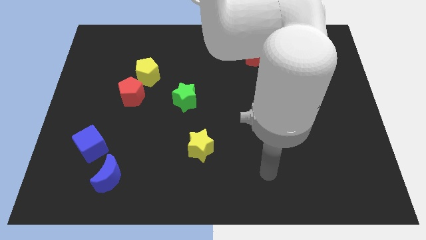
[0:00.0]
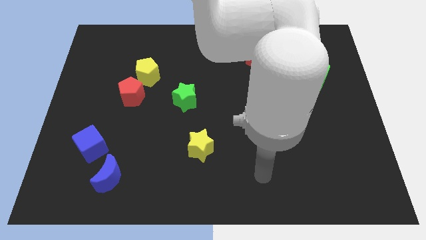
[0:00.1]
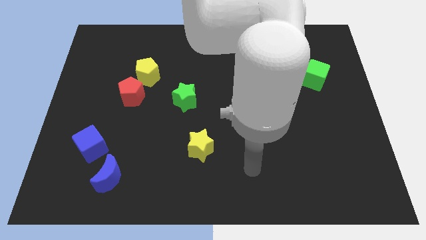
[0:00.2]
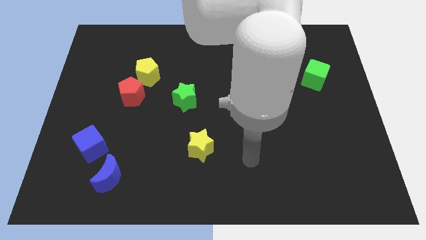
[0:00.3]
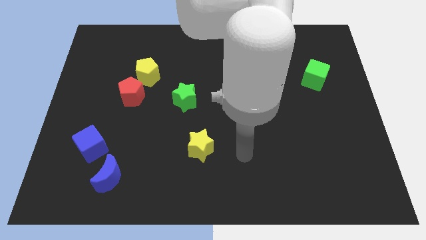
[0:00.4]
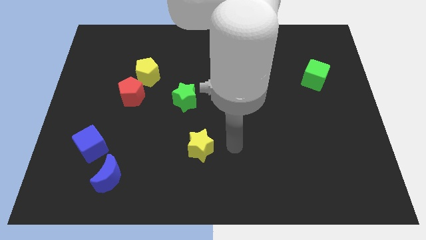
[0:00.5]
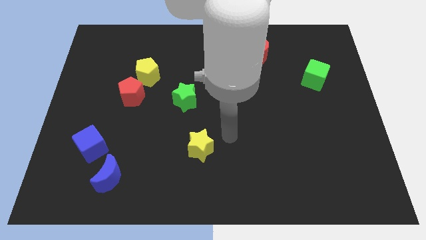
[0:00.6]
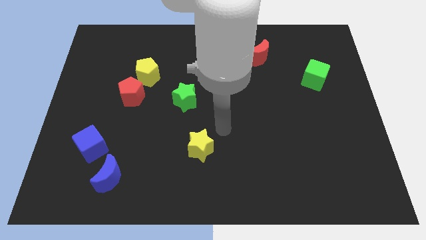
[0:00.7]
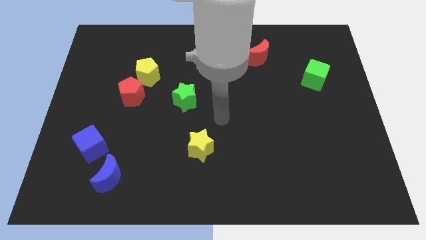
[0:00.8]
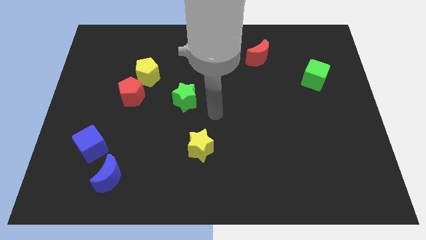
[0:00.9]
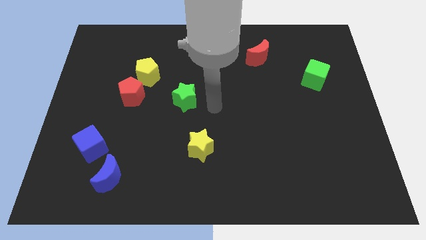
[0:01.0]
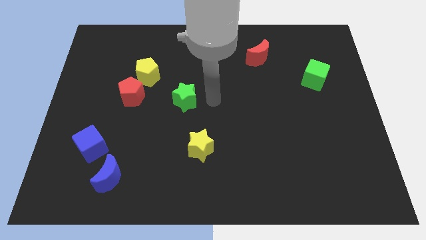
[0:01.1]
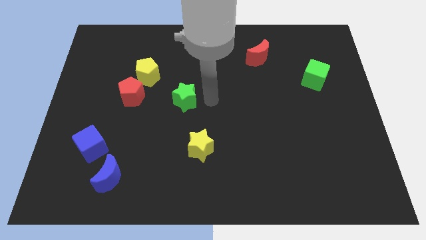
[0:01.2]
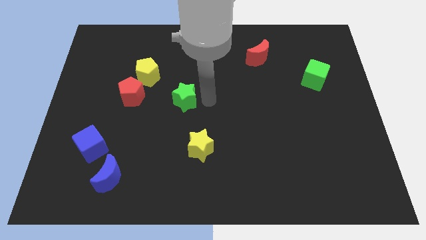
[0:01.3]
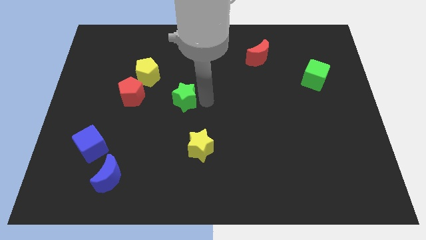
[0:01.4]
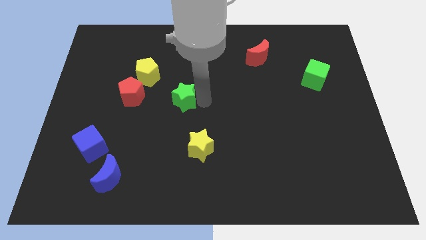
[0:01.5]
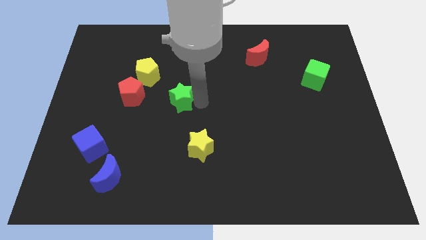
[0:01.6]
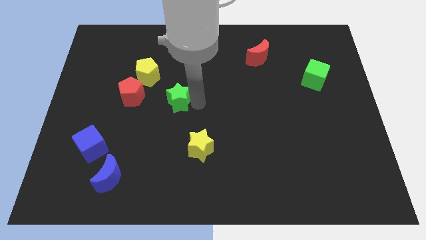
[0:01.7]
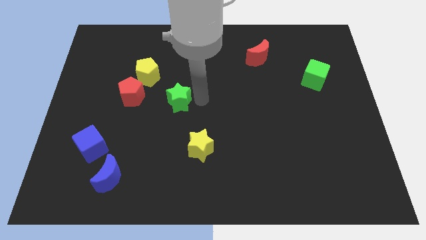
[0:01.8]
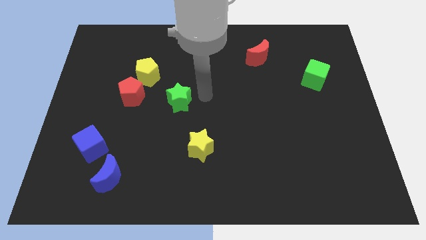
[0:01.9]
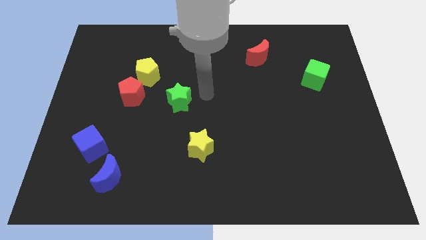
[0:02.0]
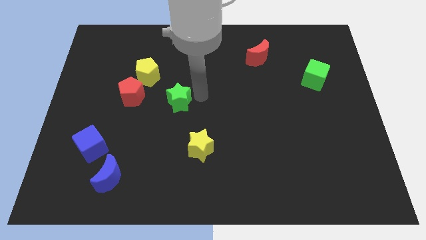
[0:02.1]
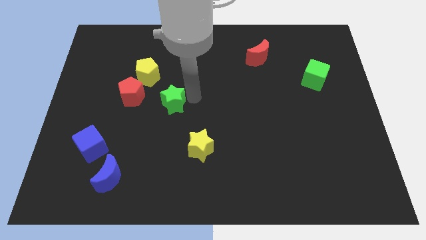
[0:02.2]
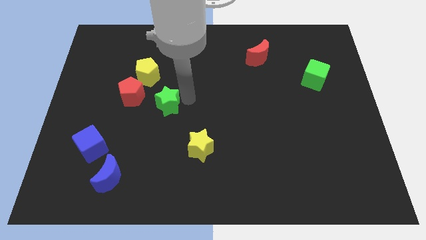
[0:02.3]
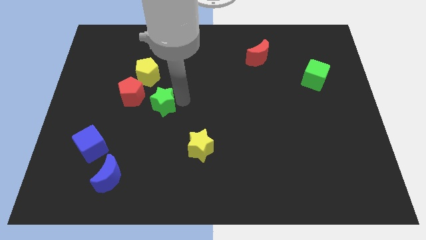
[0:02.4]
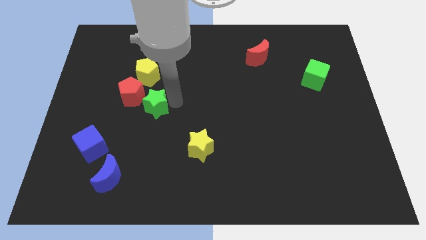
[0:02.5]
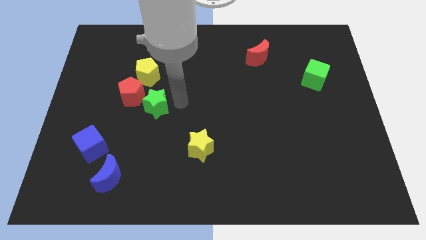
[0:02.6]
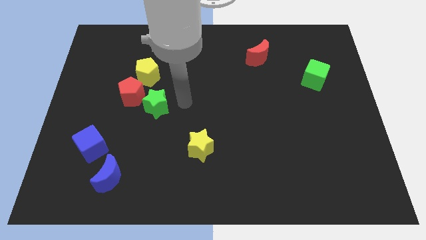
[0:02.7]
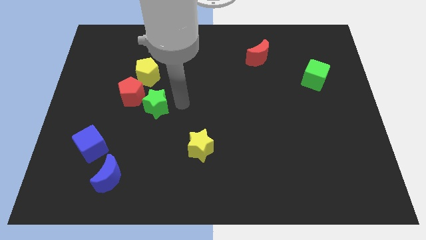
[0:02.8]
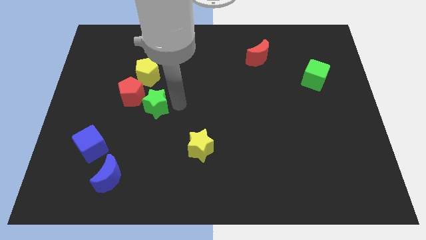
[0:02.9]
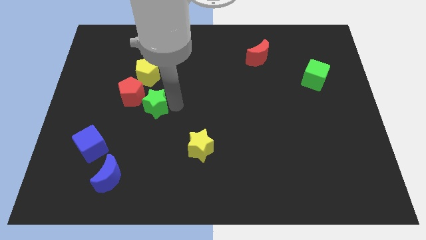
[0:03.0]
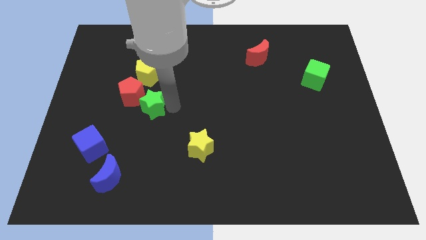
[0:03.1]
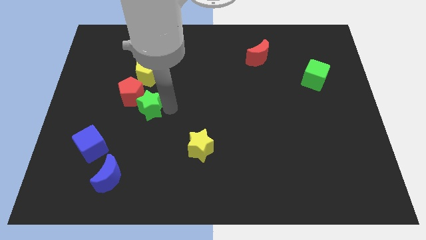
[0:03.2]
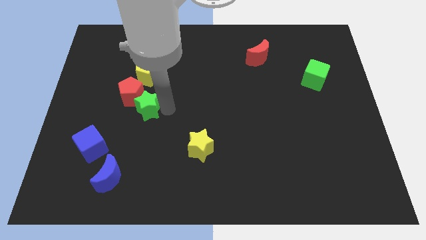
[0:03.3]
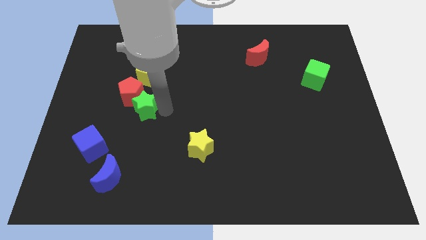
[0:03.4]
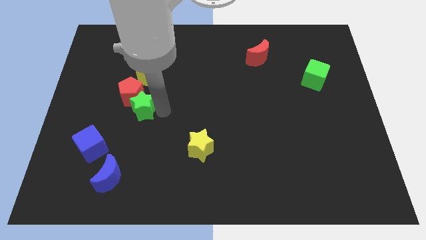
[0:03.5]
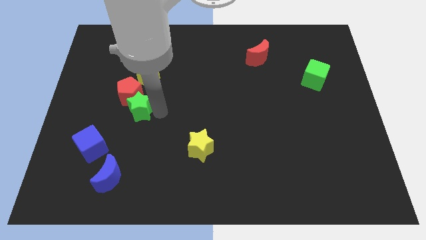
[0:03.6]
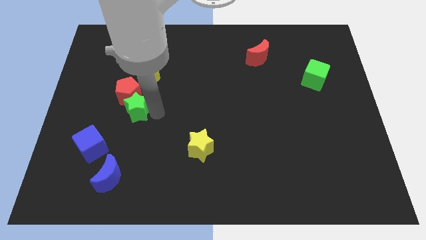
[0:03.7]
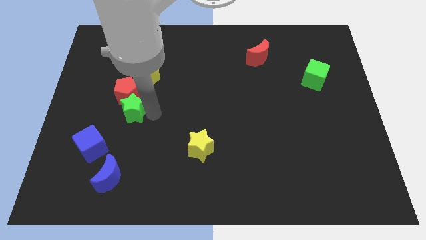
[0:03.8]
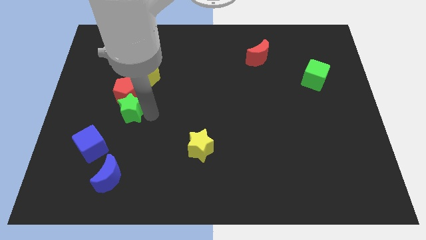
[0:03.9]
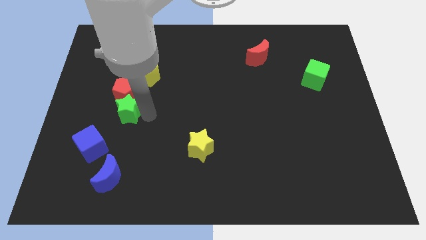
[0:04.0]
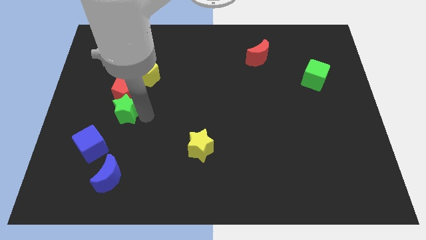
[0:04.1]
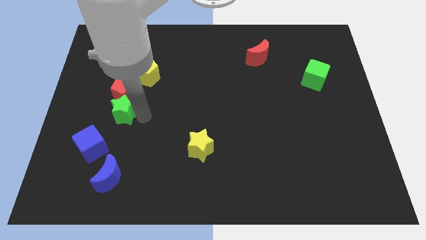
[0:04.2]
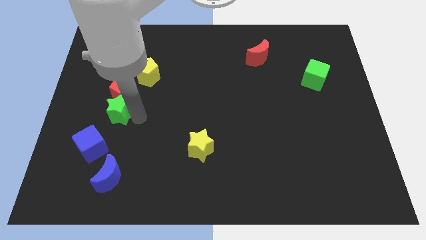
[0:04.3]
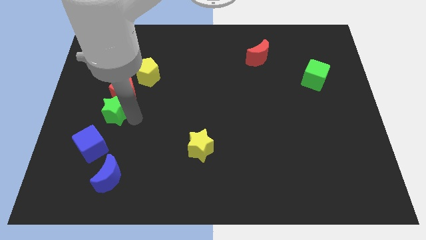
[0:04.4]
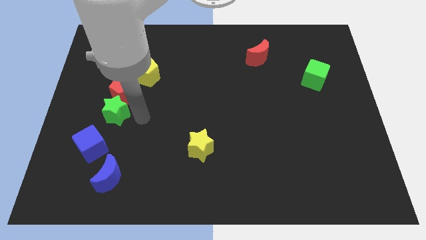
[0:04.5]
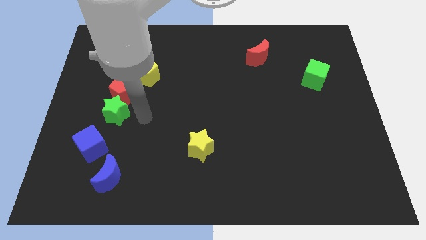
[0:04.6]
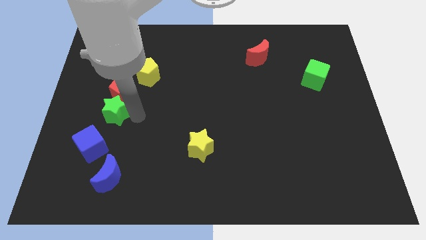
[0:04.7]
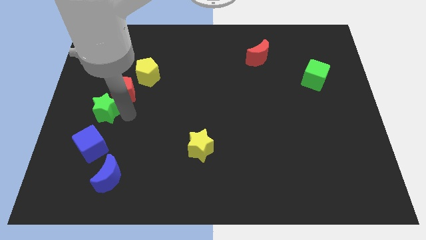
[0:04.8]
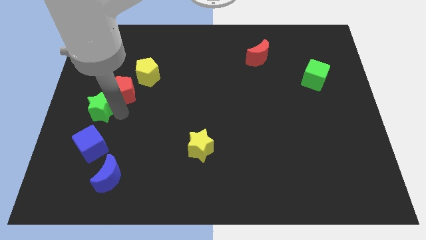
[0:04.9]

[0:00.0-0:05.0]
push the green star to the left side of the board

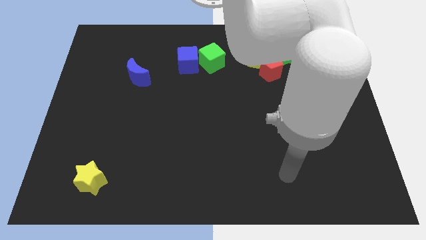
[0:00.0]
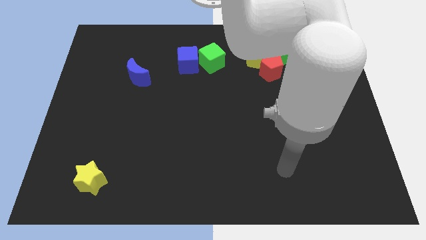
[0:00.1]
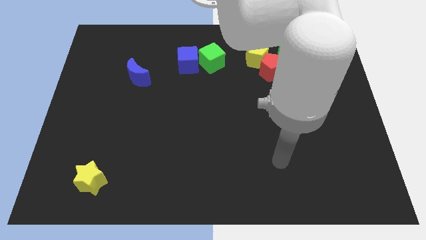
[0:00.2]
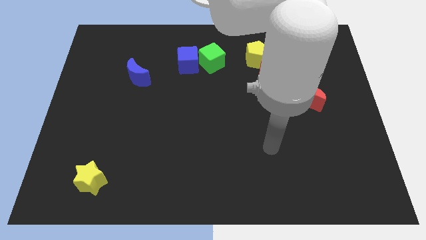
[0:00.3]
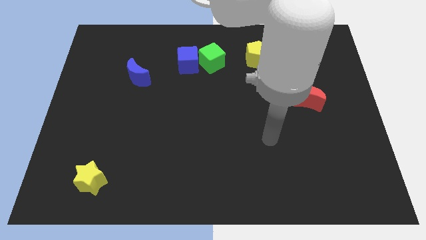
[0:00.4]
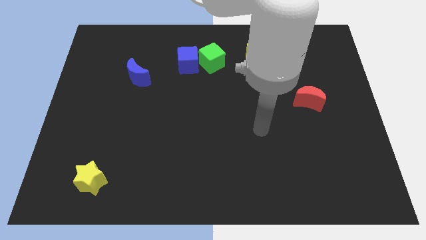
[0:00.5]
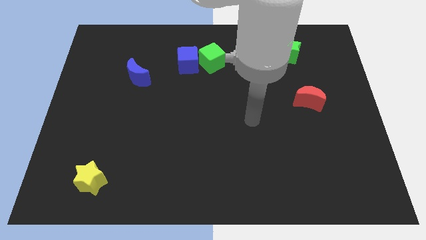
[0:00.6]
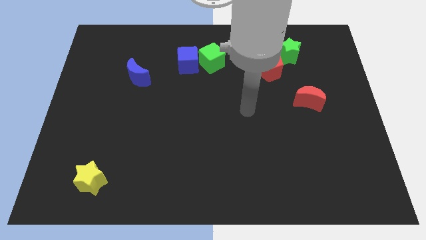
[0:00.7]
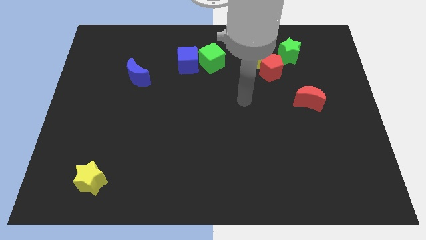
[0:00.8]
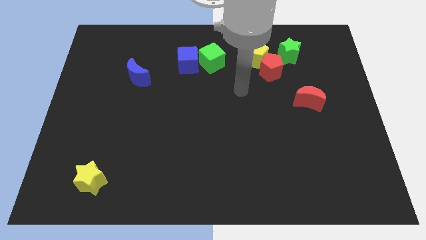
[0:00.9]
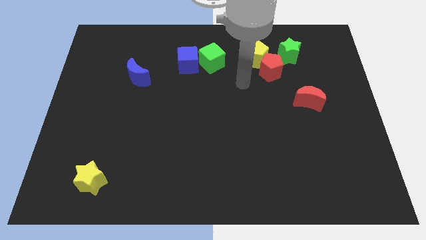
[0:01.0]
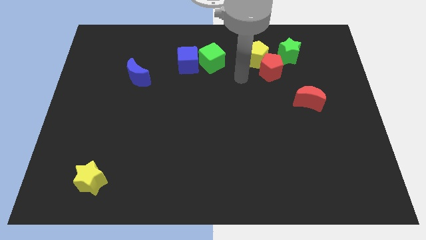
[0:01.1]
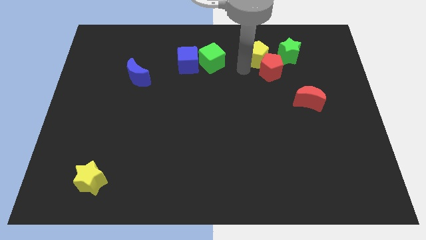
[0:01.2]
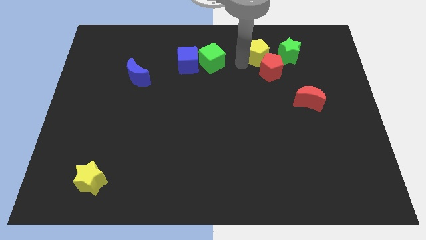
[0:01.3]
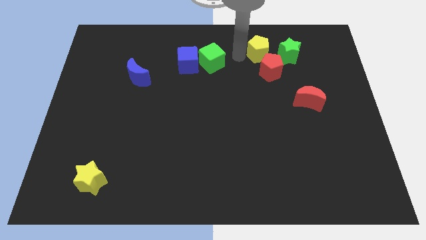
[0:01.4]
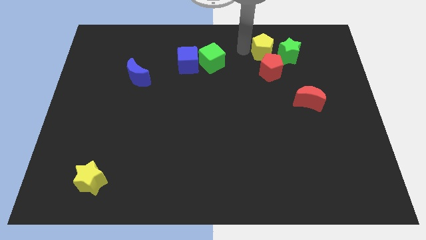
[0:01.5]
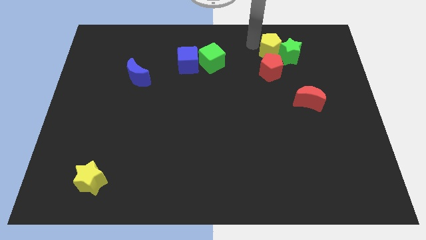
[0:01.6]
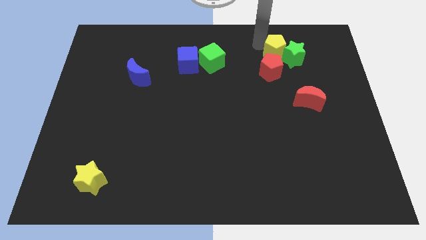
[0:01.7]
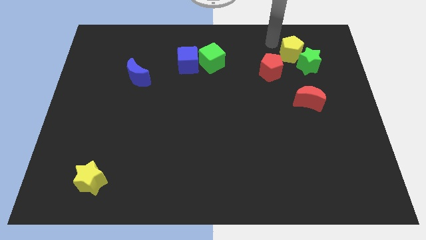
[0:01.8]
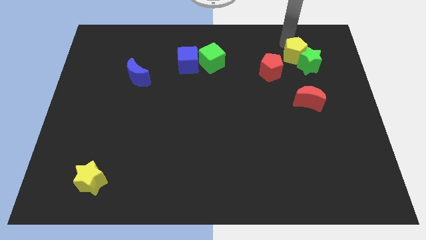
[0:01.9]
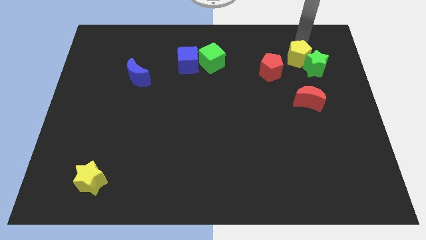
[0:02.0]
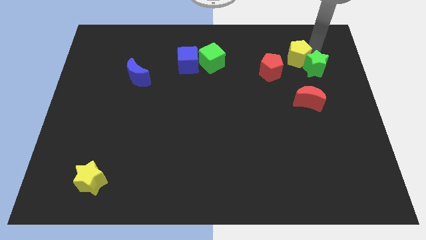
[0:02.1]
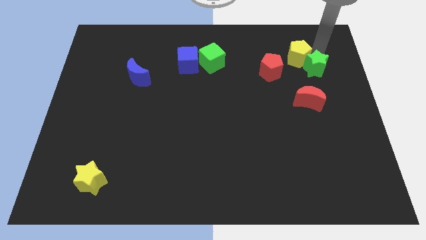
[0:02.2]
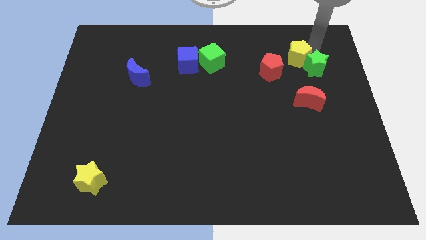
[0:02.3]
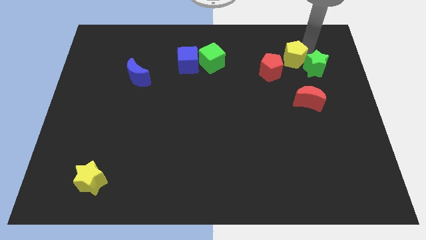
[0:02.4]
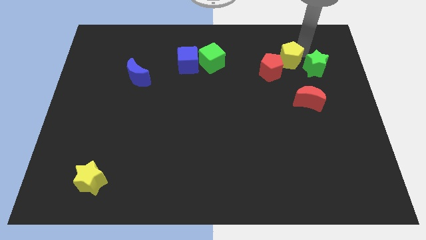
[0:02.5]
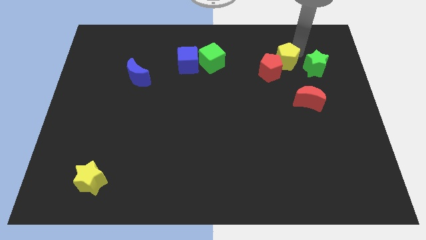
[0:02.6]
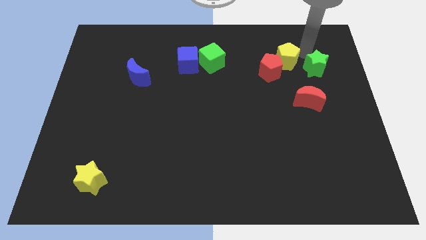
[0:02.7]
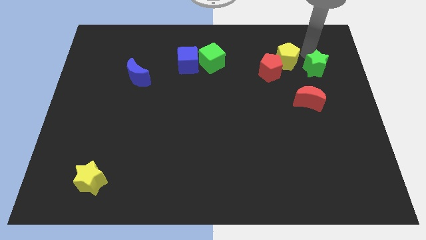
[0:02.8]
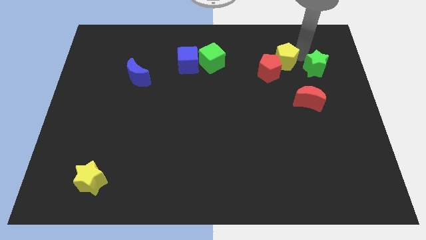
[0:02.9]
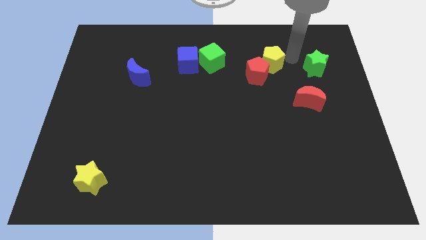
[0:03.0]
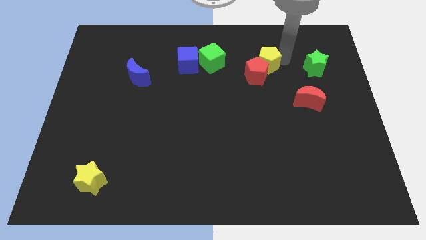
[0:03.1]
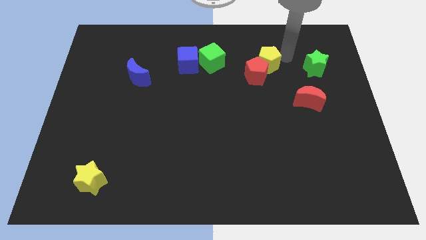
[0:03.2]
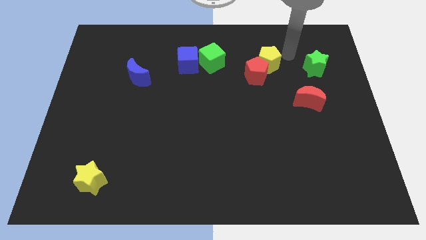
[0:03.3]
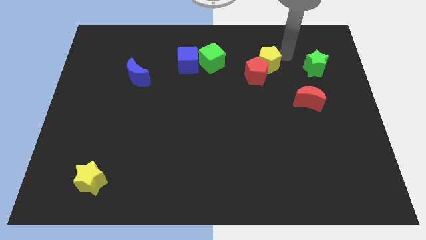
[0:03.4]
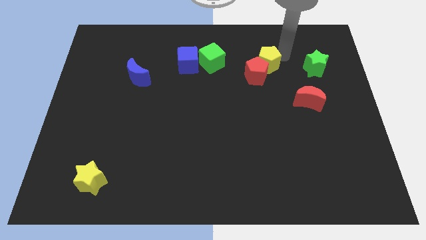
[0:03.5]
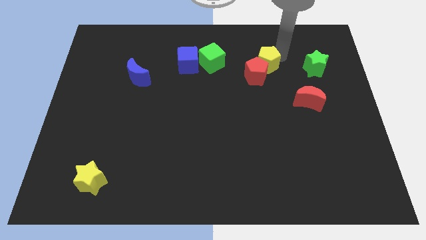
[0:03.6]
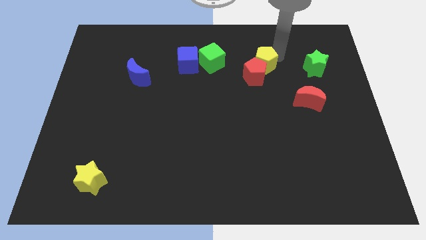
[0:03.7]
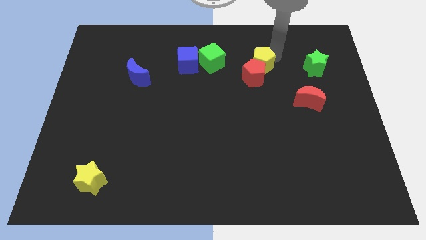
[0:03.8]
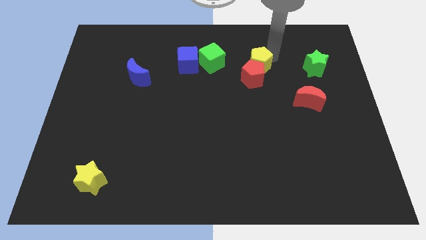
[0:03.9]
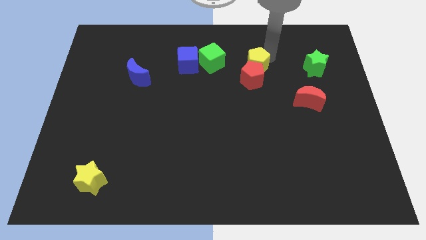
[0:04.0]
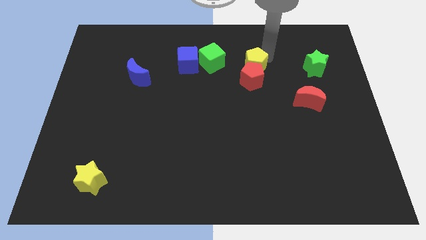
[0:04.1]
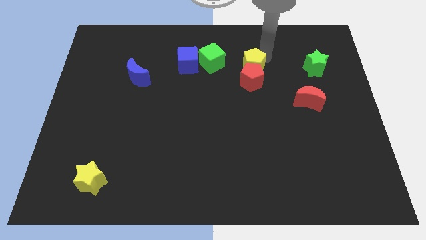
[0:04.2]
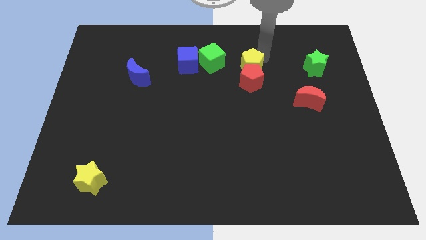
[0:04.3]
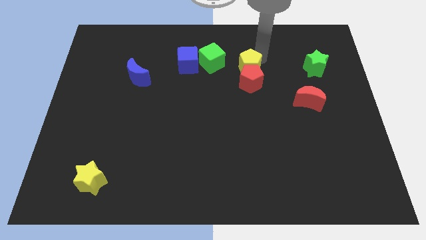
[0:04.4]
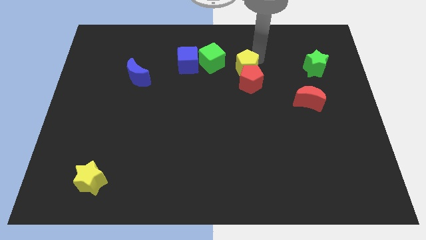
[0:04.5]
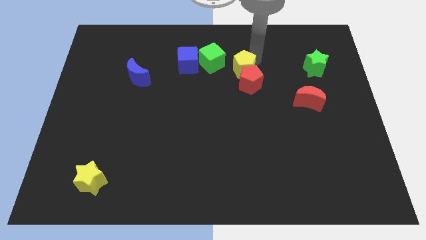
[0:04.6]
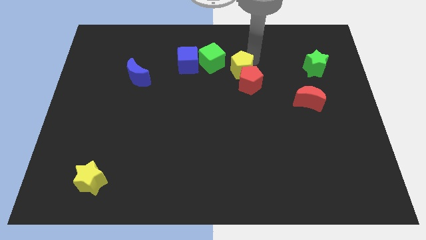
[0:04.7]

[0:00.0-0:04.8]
put the yellow pentagon to the middle of the board
